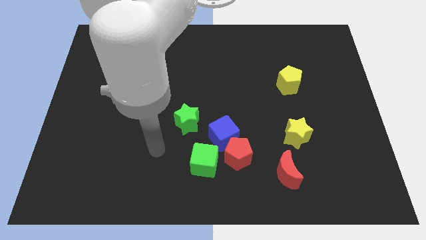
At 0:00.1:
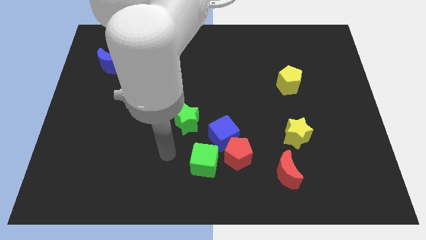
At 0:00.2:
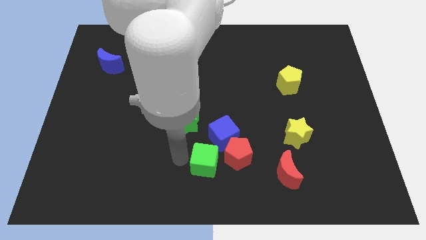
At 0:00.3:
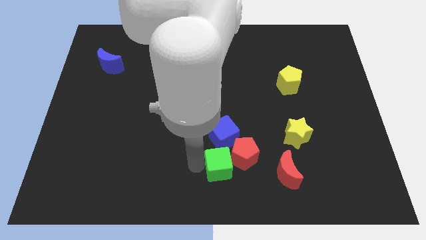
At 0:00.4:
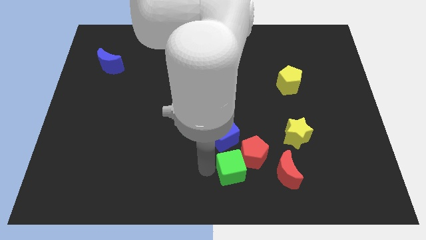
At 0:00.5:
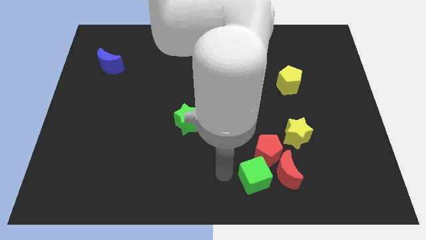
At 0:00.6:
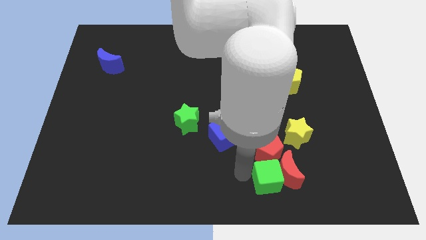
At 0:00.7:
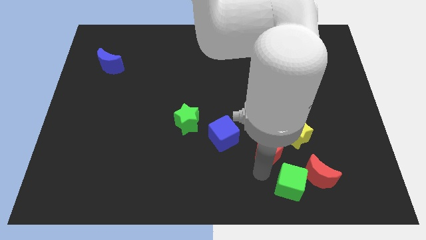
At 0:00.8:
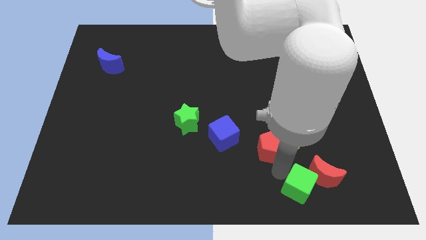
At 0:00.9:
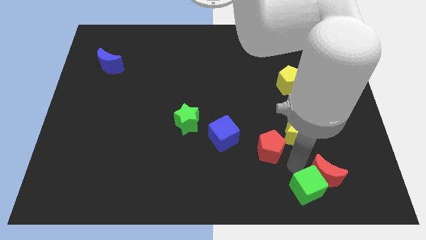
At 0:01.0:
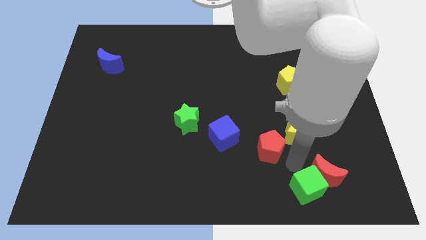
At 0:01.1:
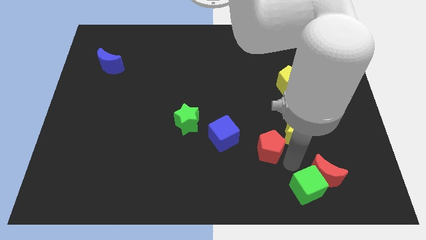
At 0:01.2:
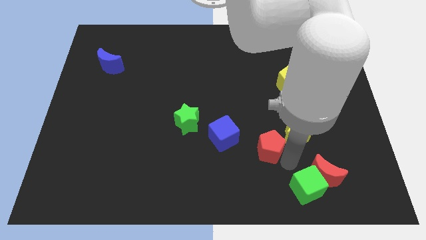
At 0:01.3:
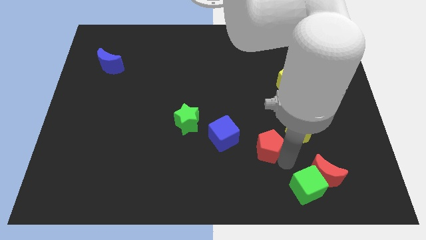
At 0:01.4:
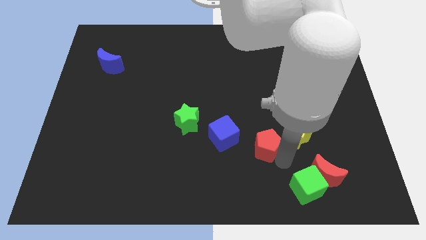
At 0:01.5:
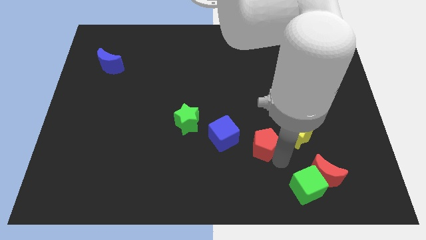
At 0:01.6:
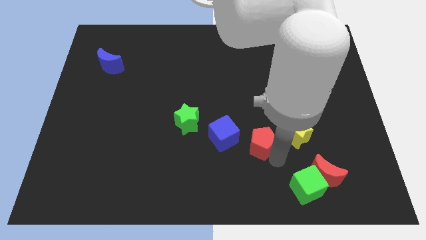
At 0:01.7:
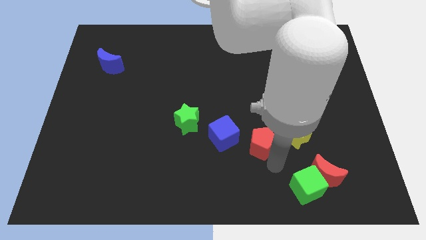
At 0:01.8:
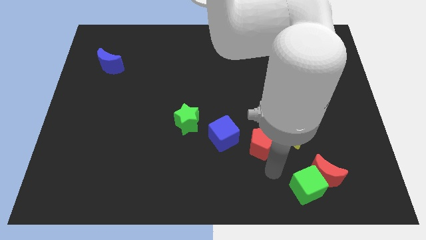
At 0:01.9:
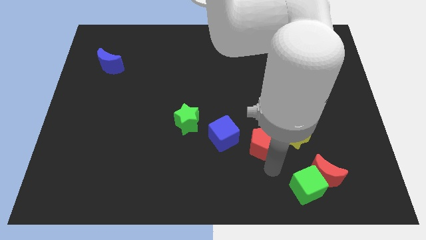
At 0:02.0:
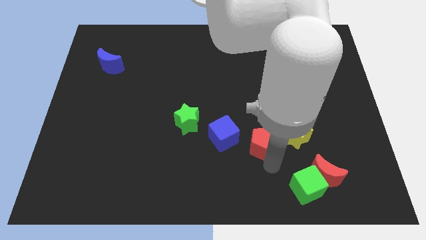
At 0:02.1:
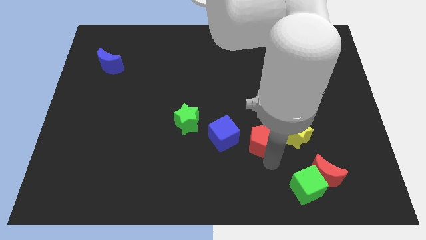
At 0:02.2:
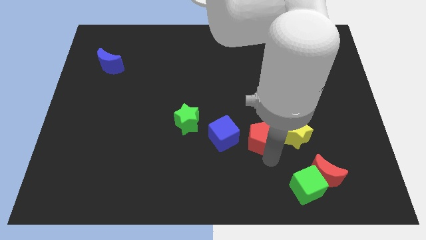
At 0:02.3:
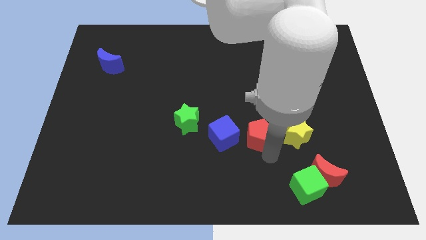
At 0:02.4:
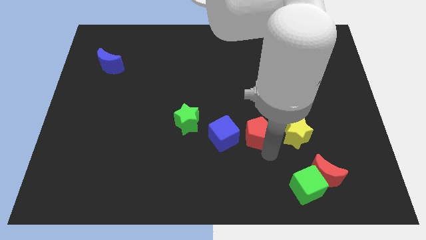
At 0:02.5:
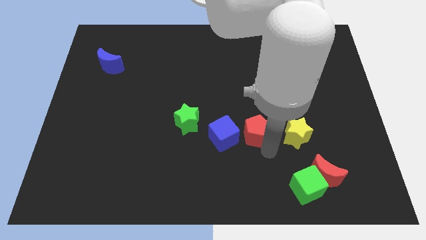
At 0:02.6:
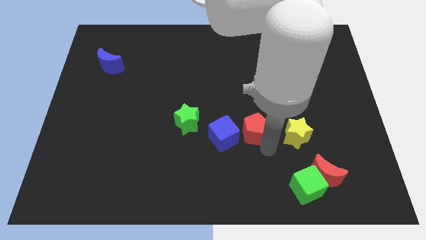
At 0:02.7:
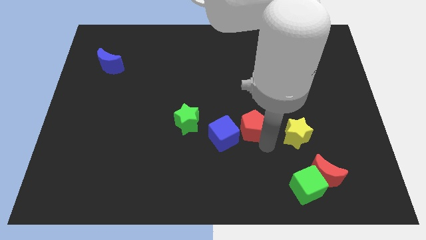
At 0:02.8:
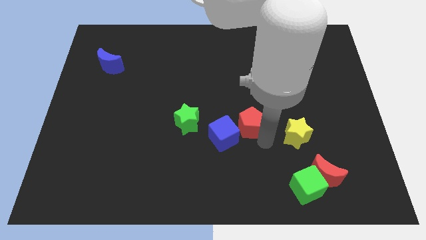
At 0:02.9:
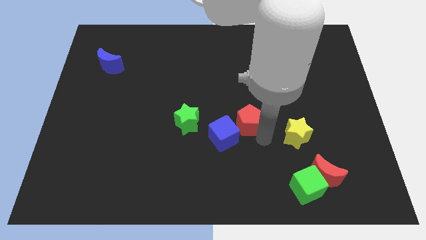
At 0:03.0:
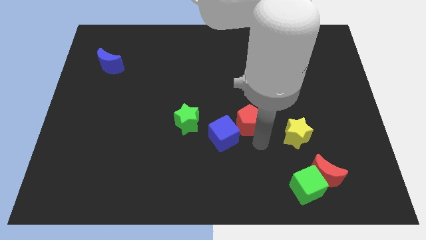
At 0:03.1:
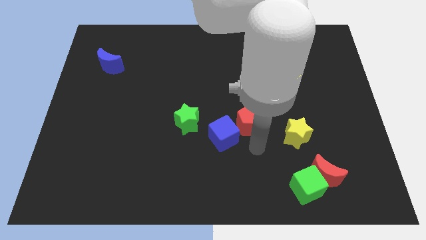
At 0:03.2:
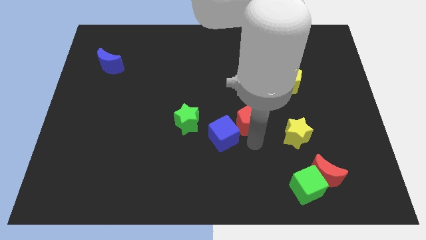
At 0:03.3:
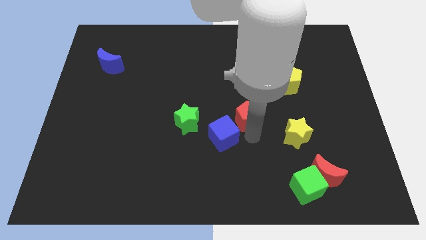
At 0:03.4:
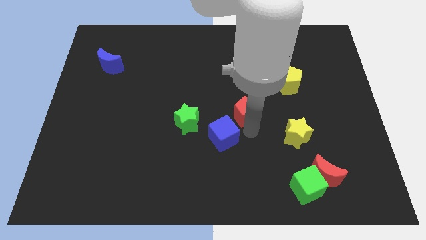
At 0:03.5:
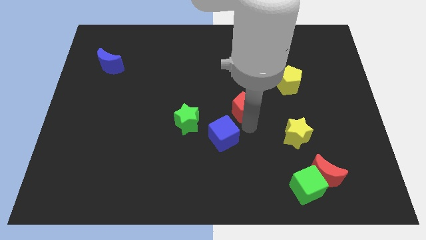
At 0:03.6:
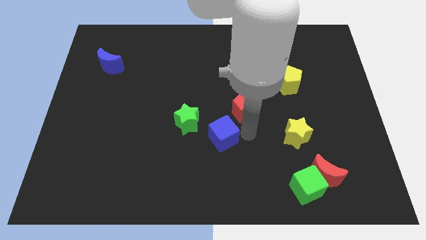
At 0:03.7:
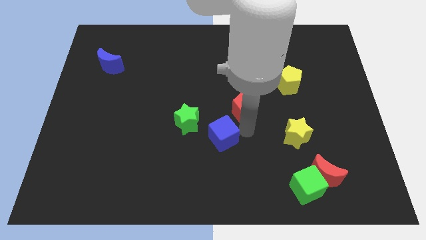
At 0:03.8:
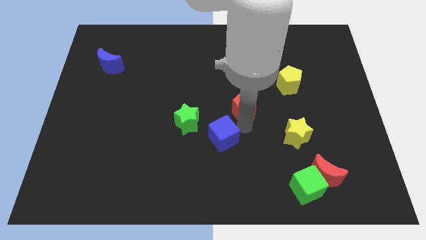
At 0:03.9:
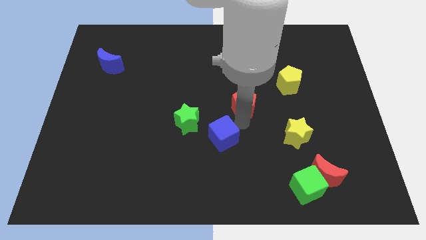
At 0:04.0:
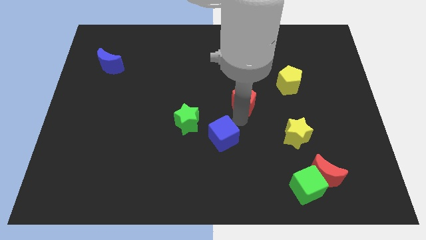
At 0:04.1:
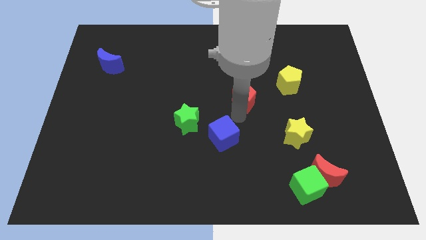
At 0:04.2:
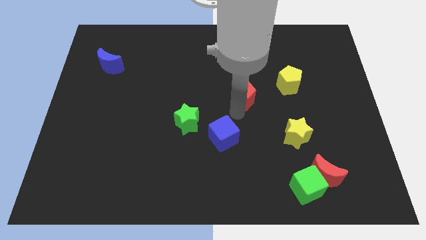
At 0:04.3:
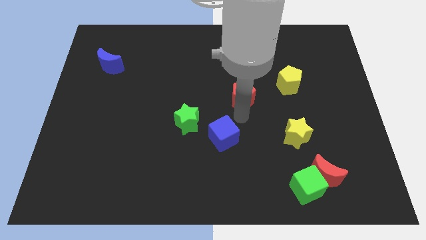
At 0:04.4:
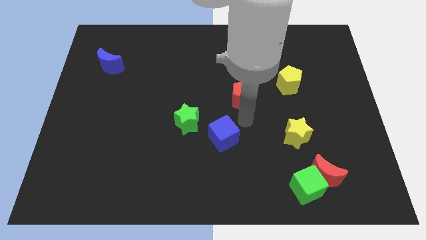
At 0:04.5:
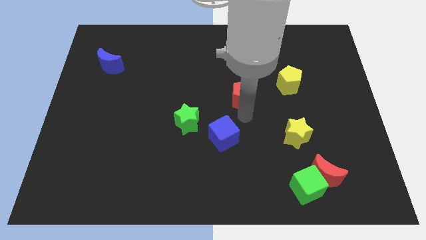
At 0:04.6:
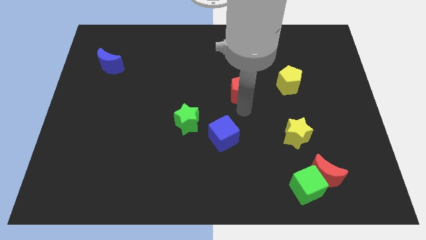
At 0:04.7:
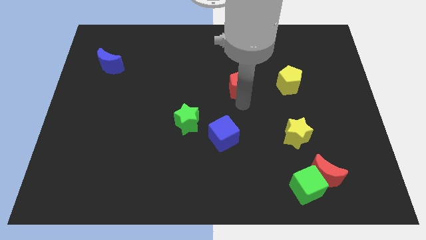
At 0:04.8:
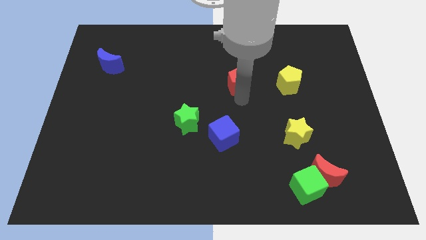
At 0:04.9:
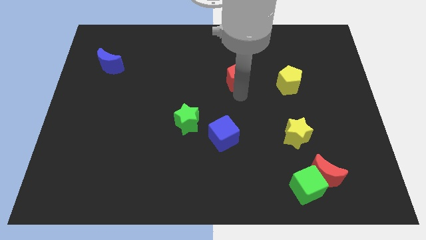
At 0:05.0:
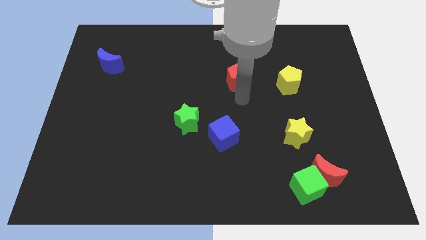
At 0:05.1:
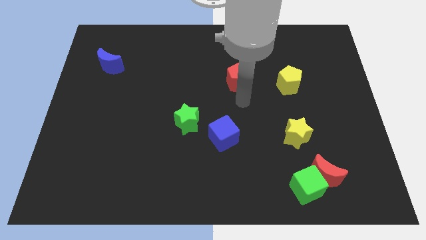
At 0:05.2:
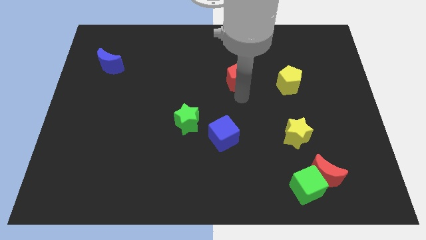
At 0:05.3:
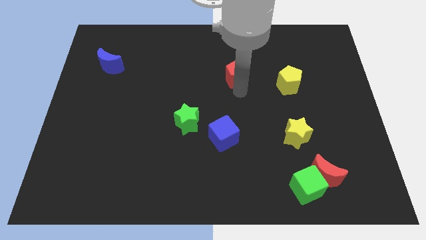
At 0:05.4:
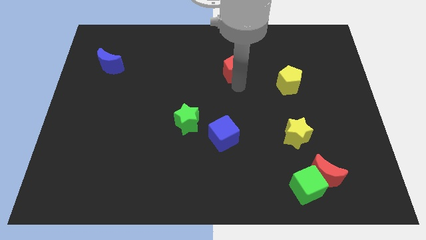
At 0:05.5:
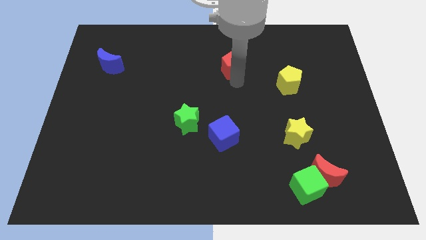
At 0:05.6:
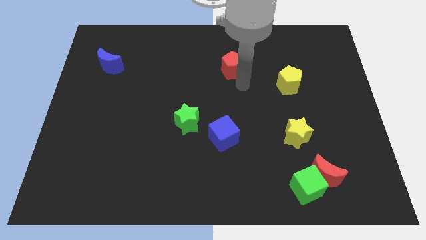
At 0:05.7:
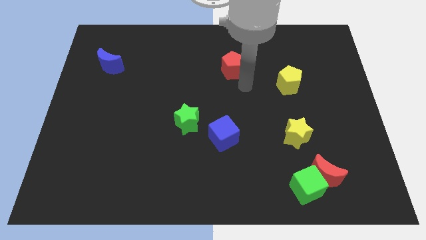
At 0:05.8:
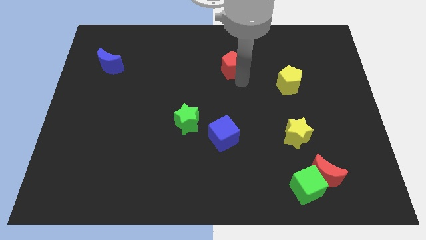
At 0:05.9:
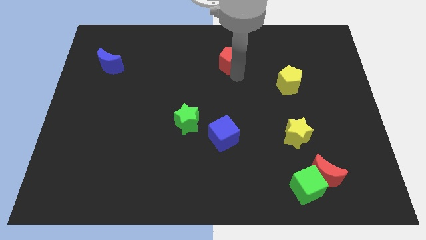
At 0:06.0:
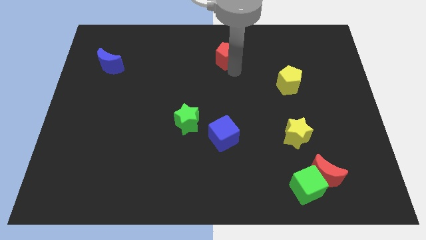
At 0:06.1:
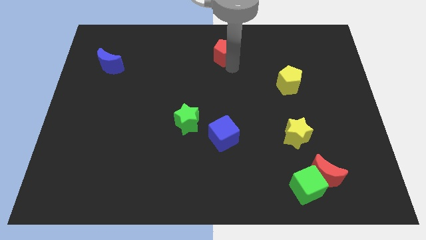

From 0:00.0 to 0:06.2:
push the red pentagon to the top side
